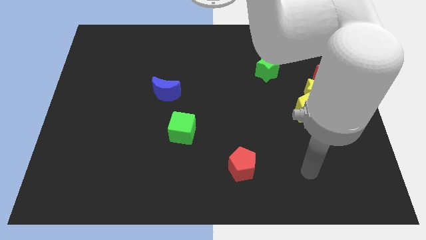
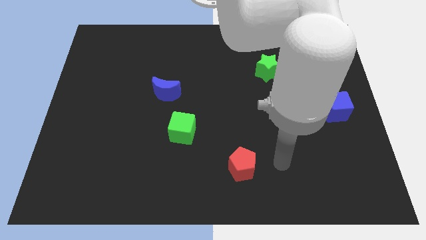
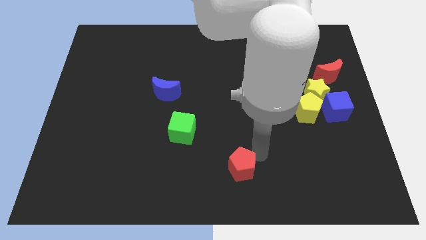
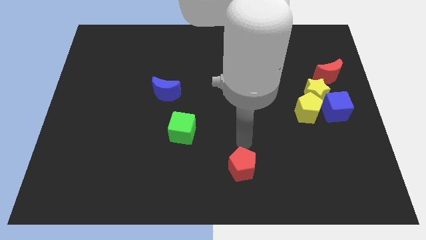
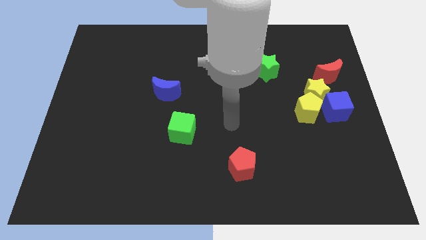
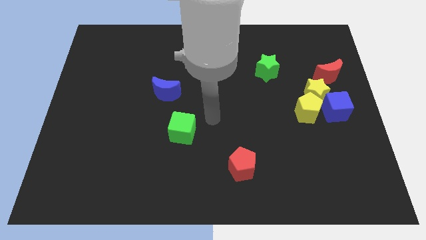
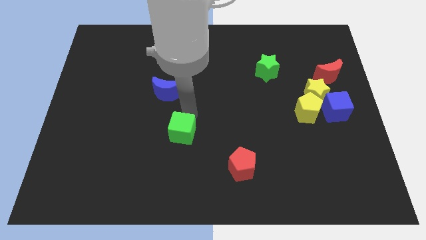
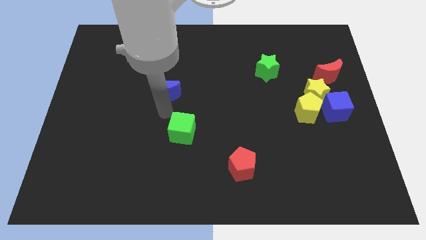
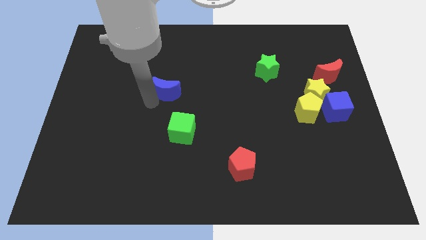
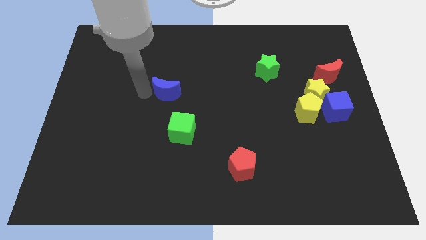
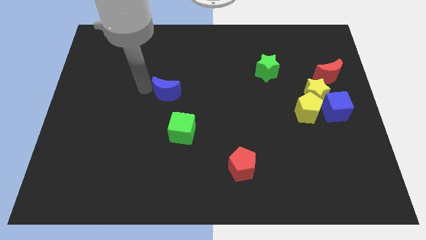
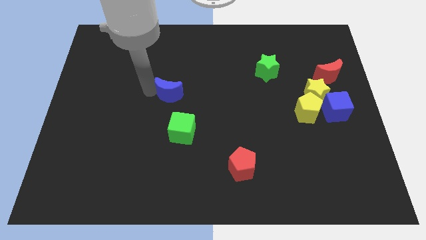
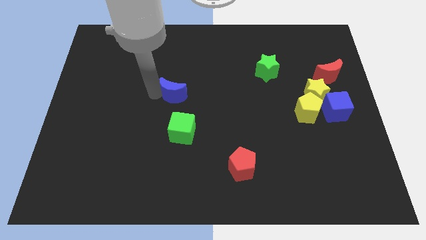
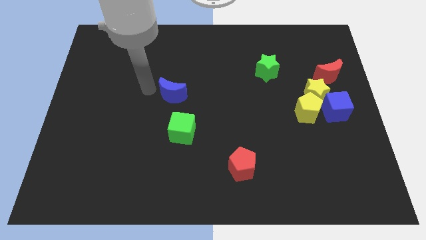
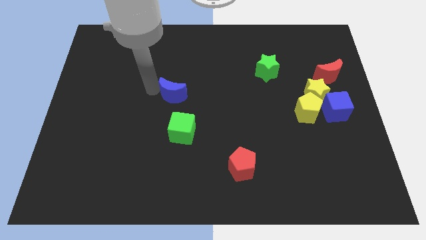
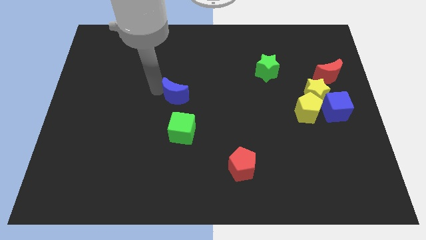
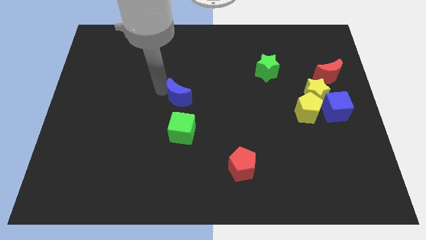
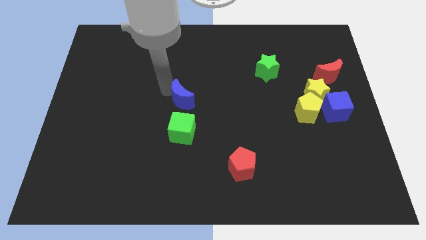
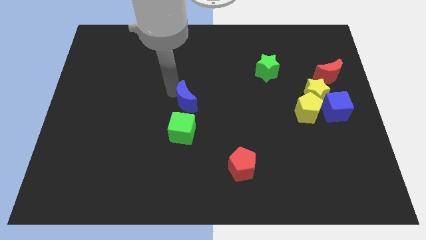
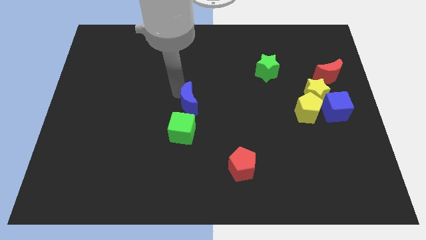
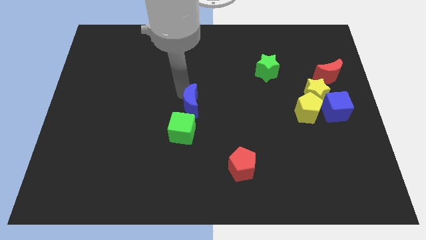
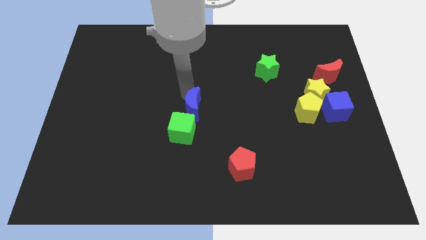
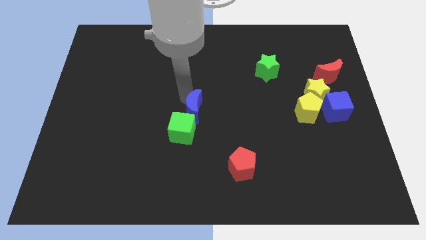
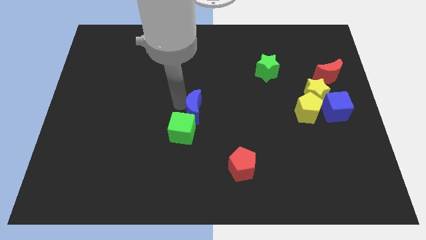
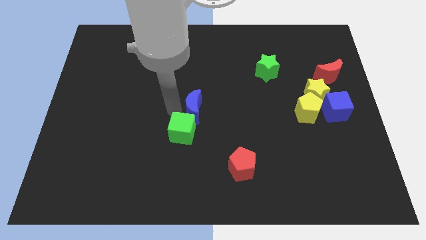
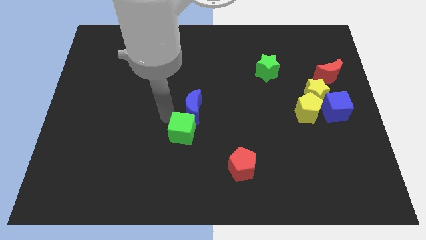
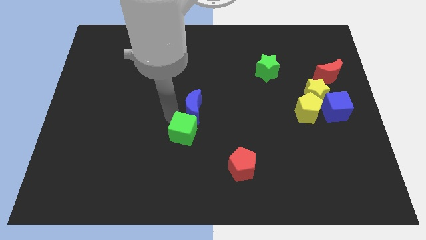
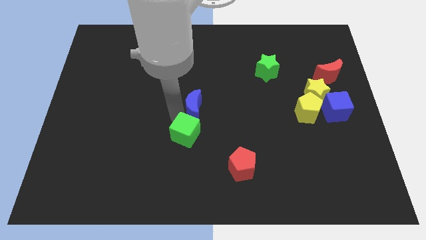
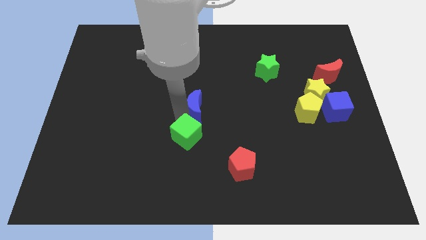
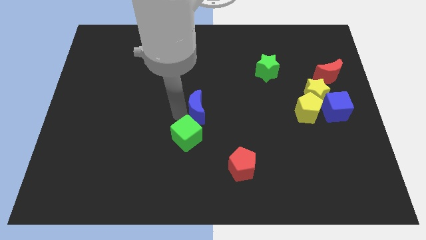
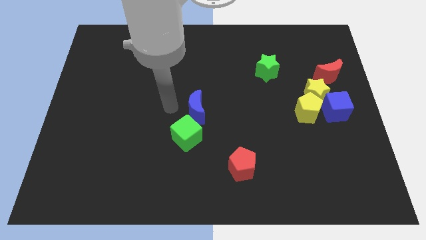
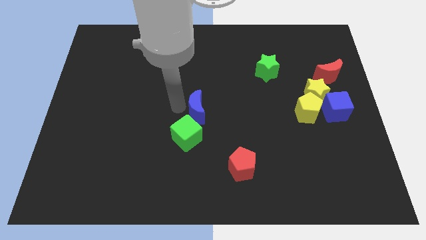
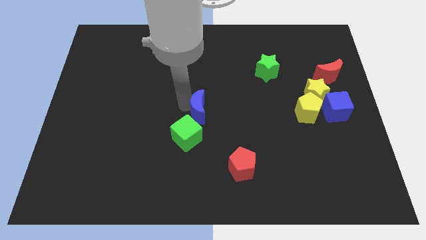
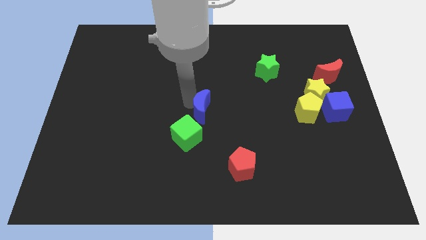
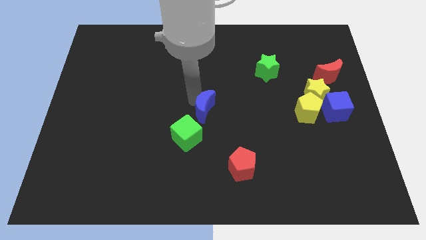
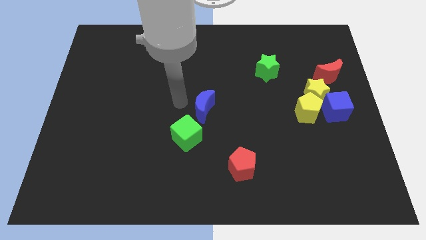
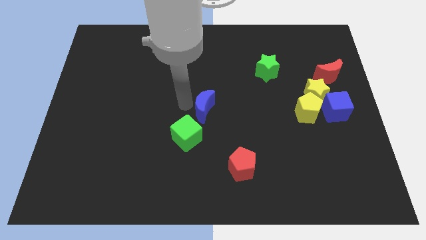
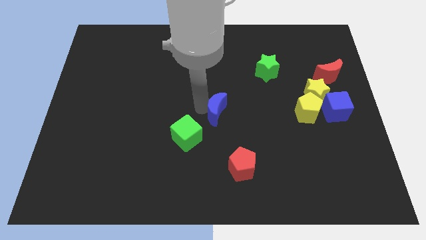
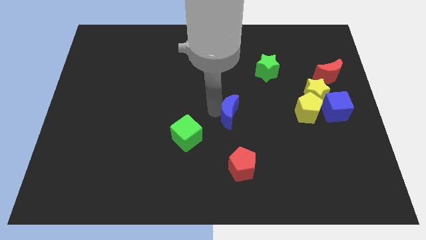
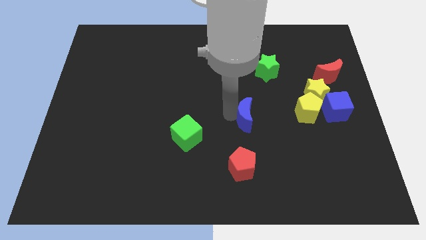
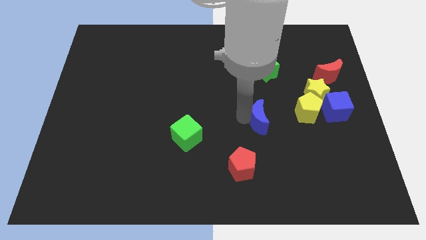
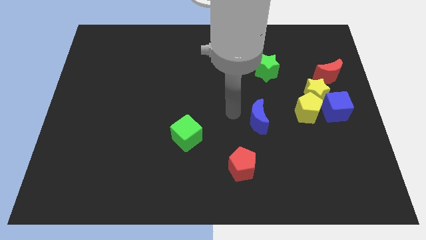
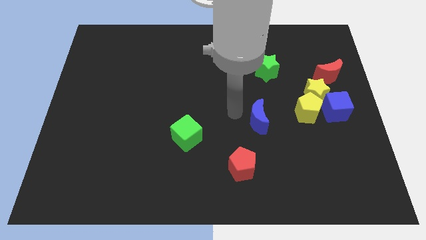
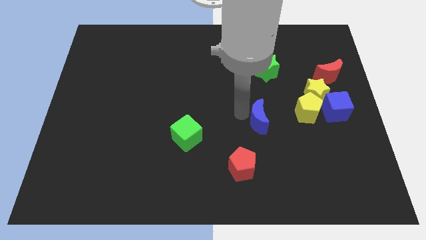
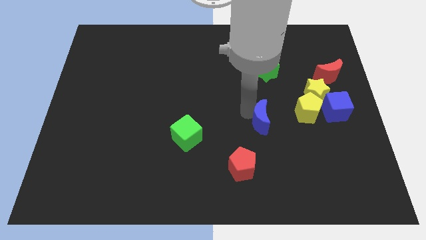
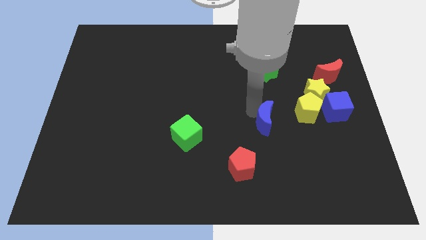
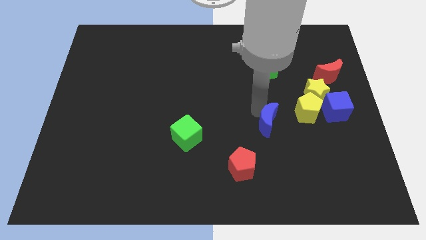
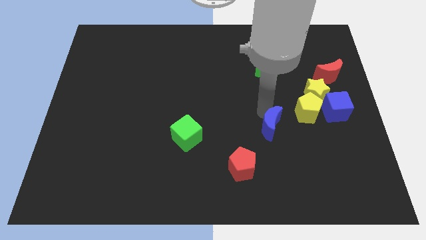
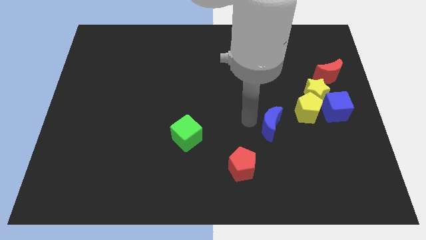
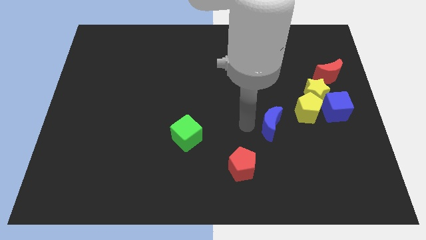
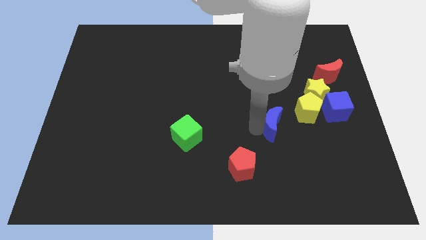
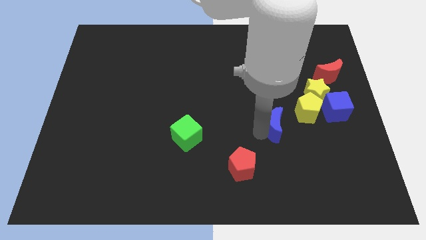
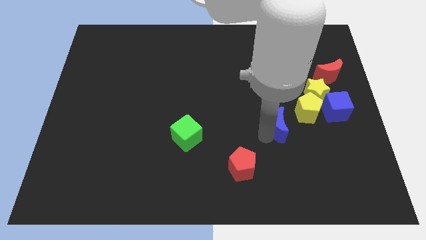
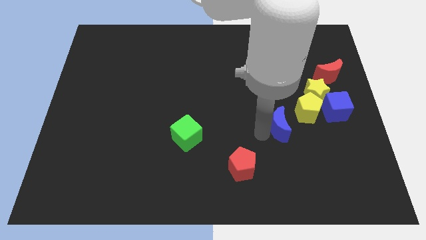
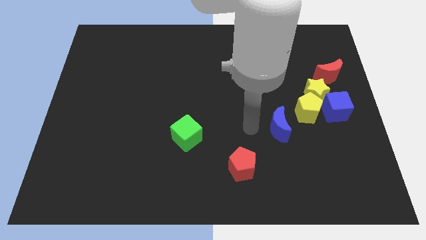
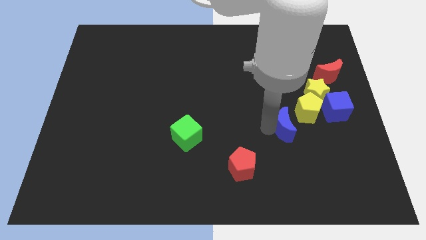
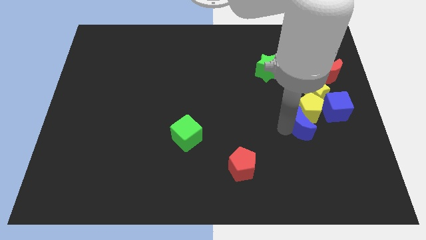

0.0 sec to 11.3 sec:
slide the blue moon to the bottom left side of the blue cube

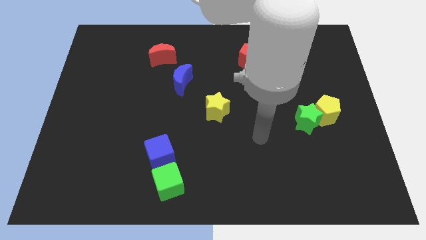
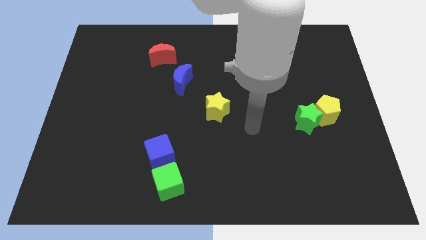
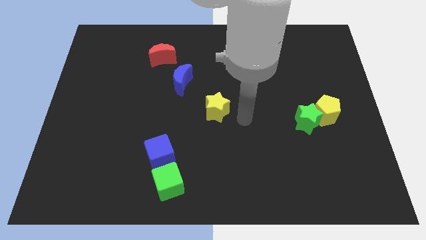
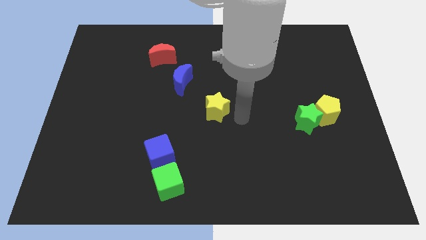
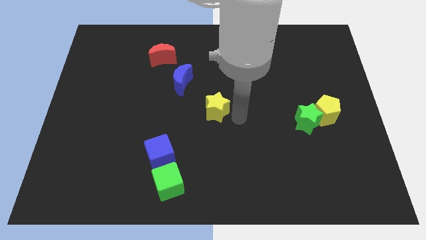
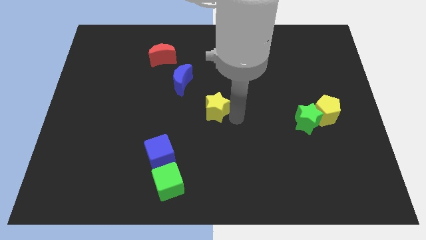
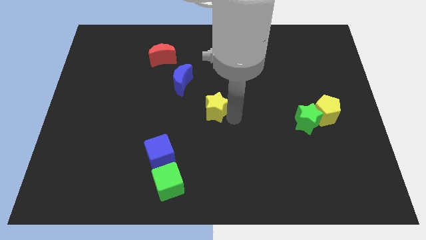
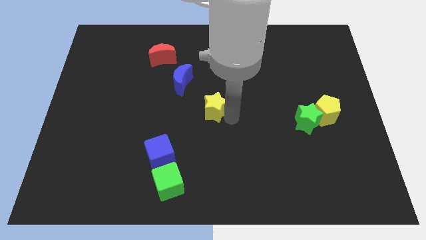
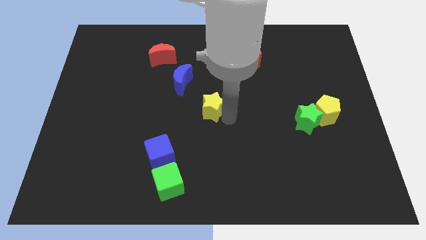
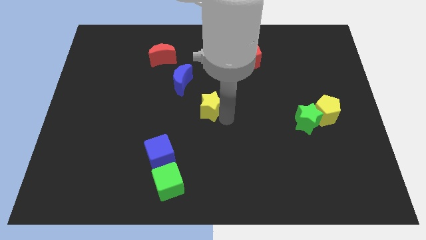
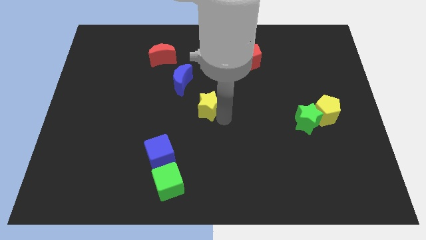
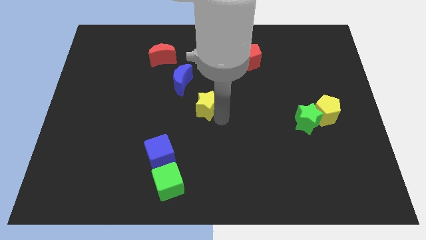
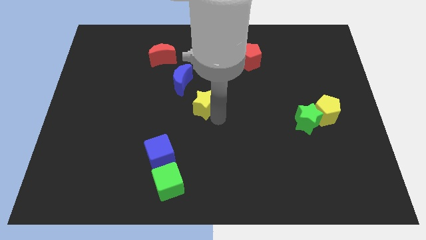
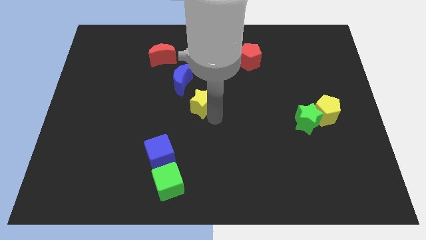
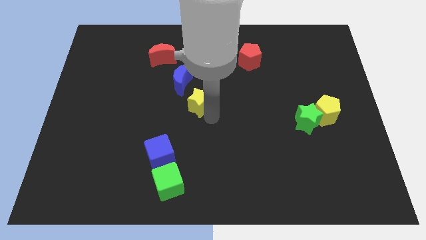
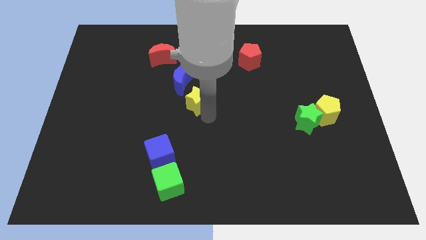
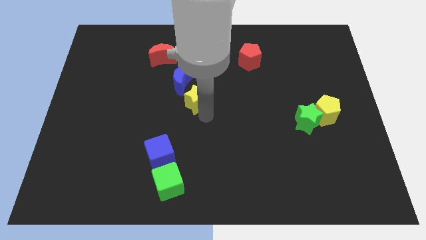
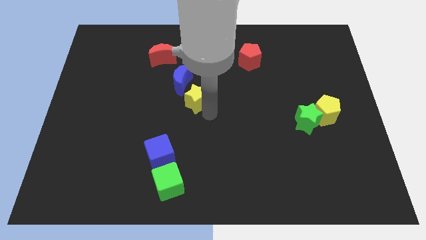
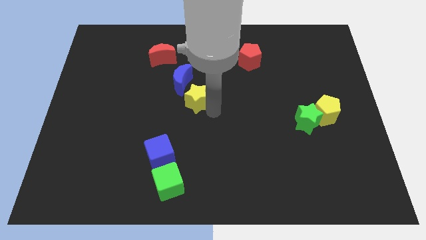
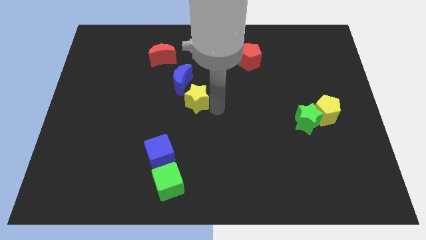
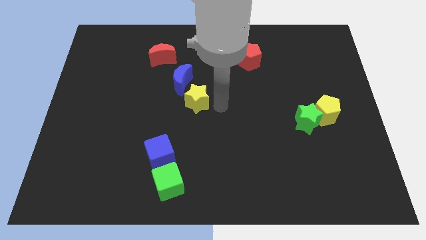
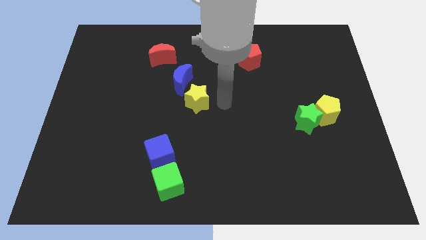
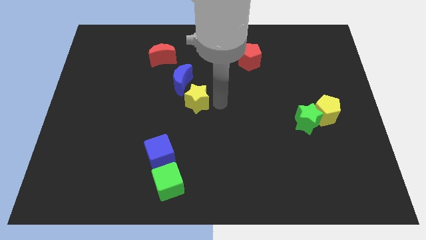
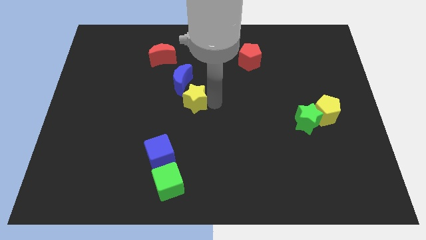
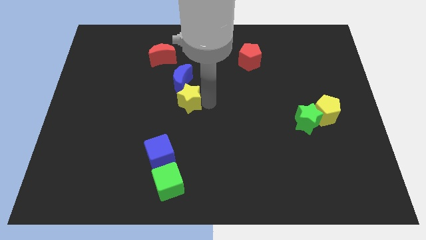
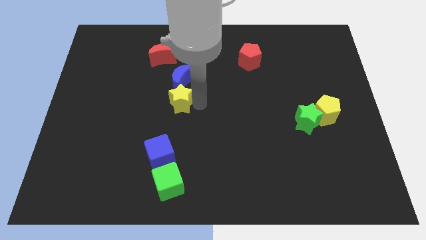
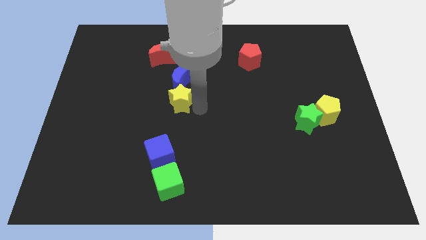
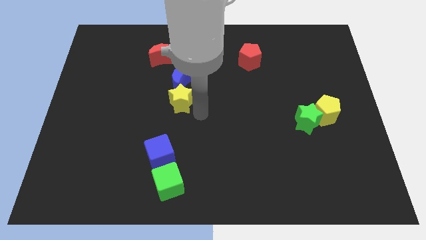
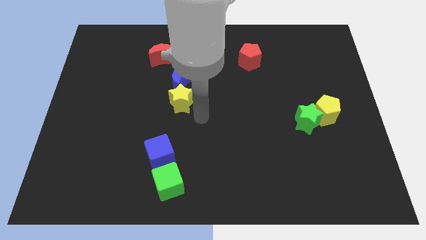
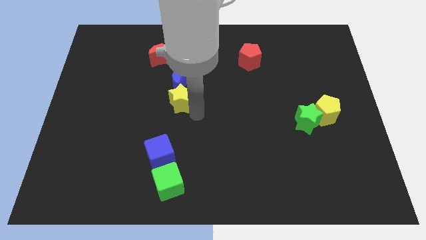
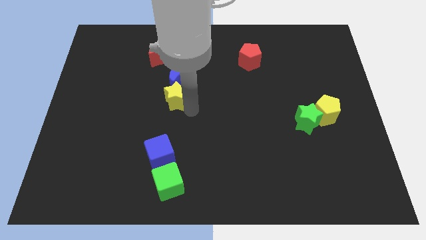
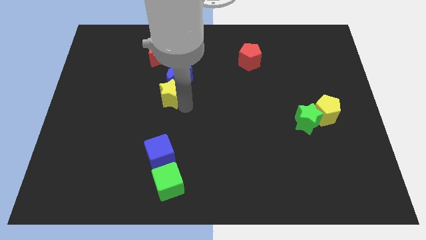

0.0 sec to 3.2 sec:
move the yellow star below the red moon
